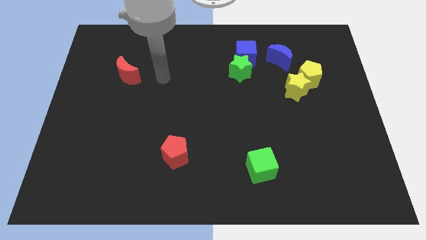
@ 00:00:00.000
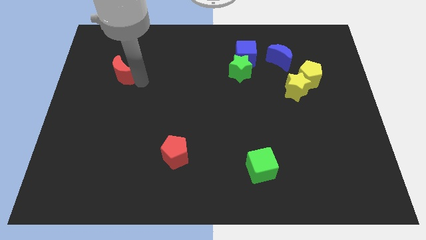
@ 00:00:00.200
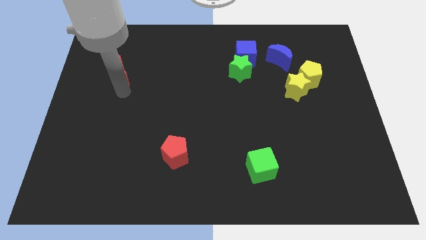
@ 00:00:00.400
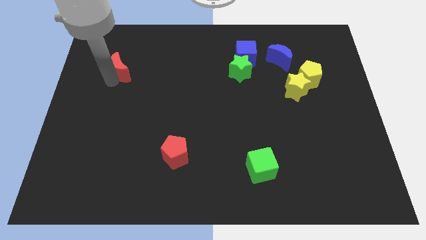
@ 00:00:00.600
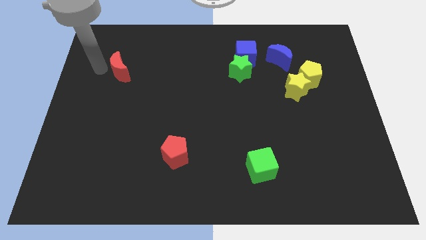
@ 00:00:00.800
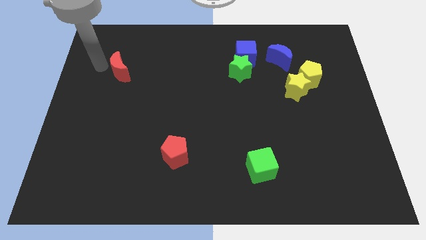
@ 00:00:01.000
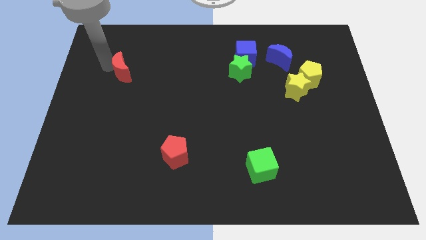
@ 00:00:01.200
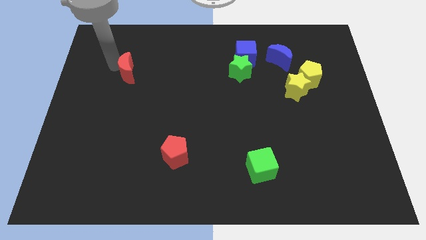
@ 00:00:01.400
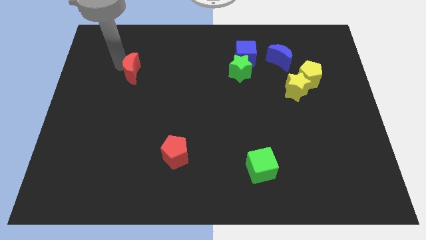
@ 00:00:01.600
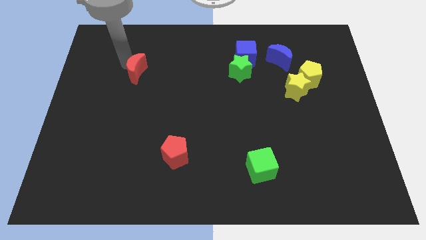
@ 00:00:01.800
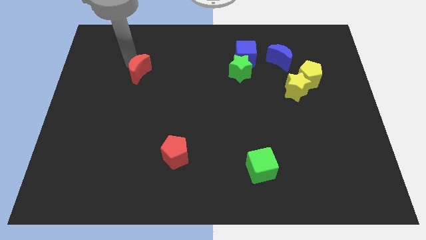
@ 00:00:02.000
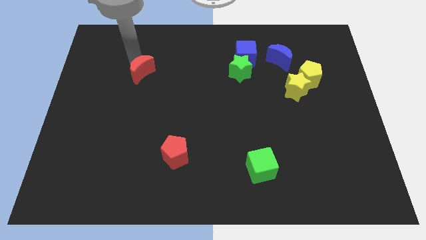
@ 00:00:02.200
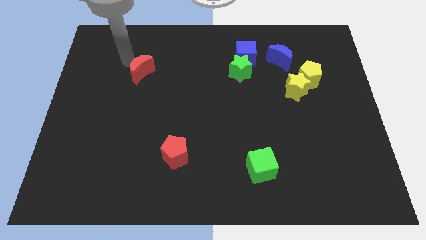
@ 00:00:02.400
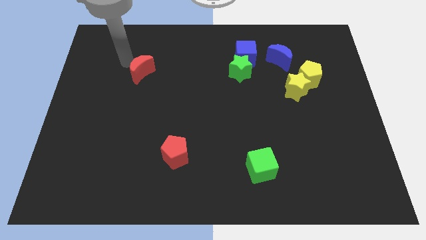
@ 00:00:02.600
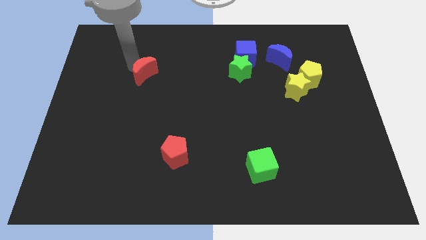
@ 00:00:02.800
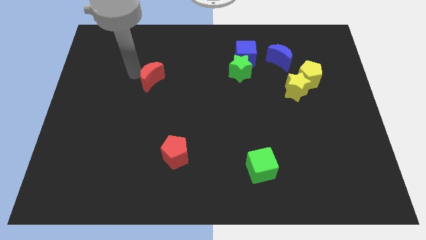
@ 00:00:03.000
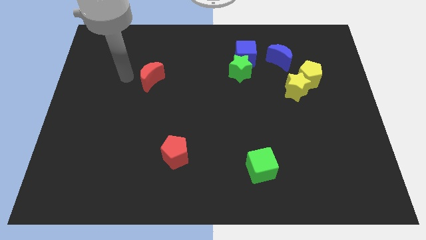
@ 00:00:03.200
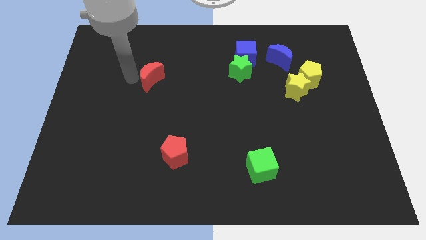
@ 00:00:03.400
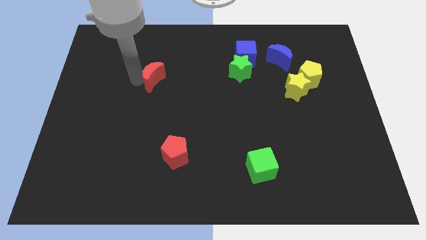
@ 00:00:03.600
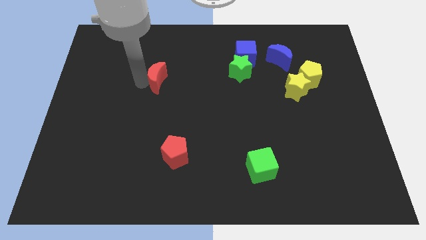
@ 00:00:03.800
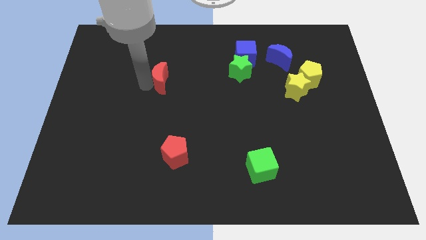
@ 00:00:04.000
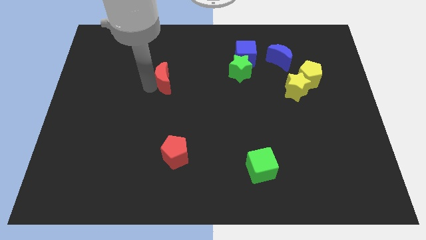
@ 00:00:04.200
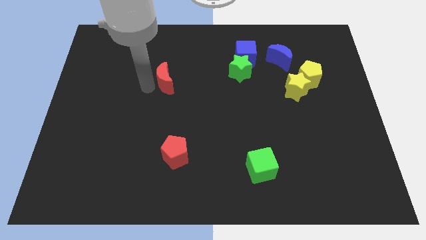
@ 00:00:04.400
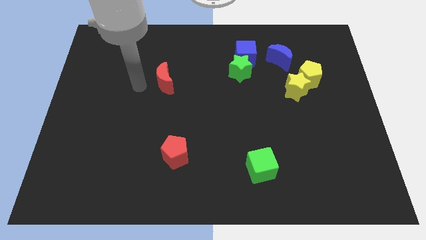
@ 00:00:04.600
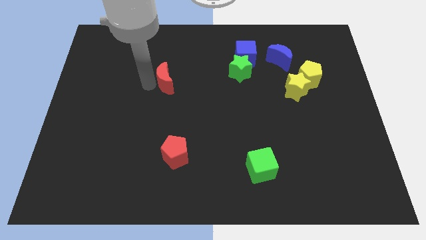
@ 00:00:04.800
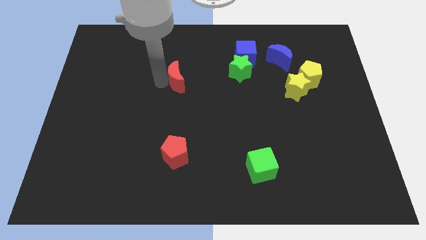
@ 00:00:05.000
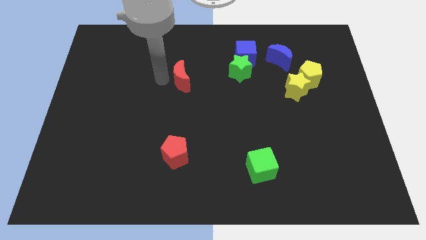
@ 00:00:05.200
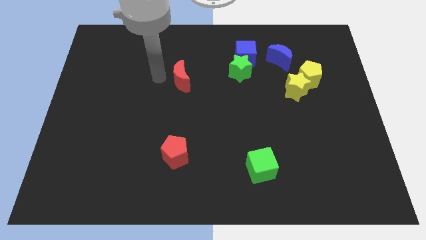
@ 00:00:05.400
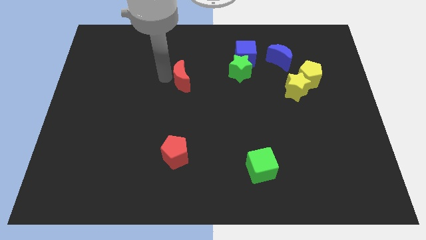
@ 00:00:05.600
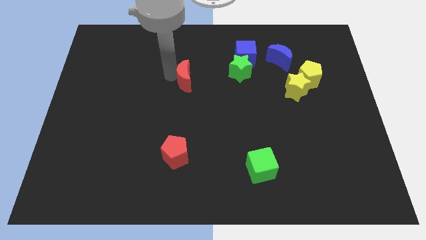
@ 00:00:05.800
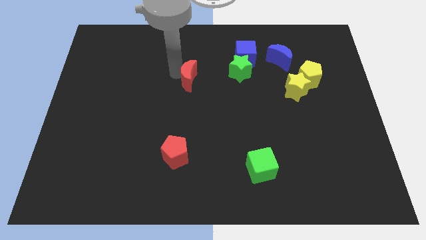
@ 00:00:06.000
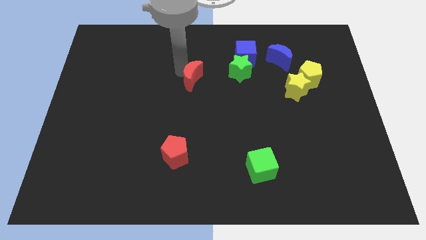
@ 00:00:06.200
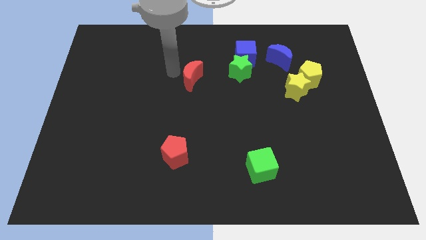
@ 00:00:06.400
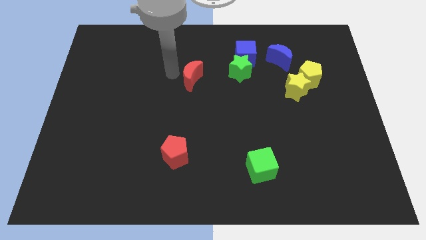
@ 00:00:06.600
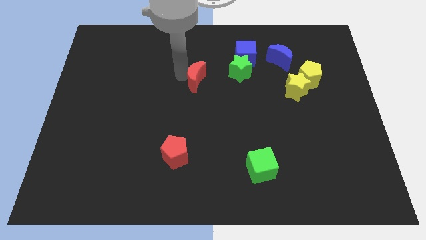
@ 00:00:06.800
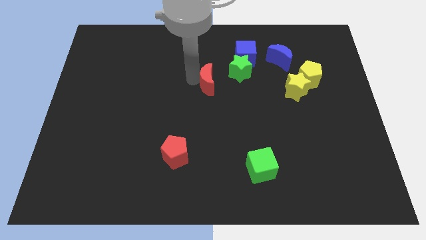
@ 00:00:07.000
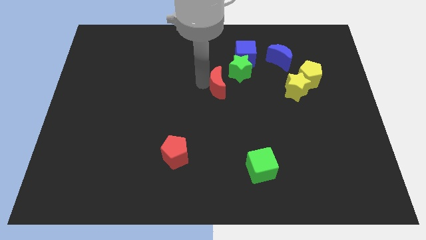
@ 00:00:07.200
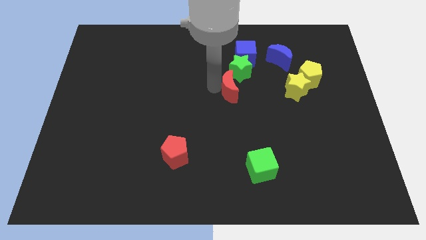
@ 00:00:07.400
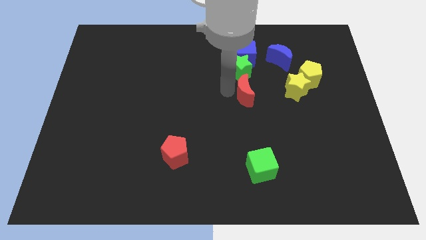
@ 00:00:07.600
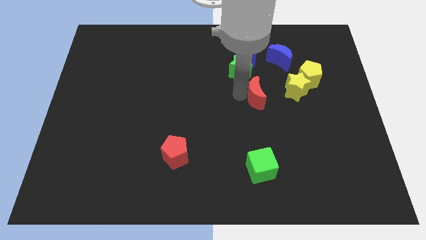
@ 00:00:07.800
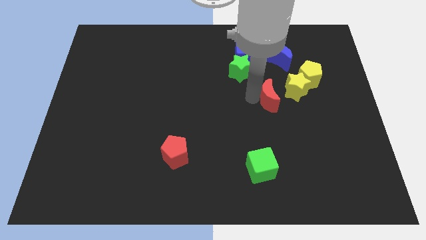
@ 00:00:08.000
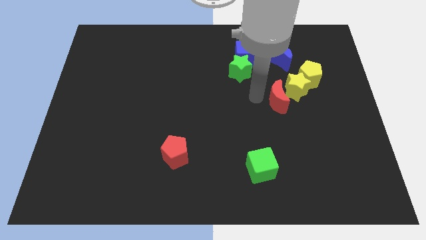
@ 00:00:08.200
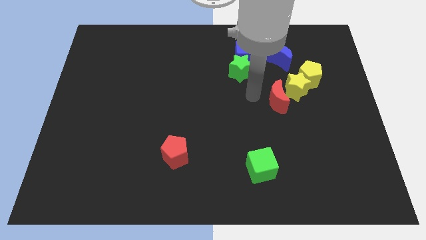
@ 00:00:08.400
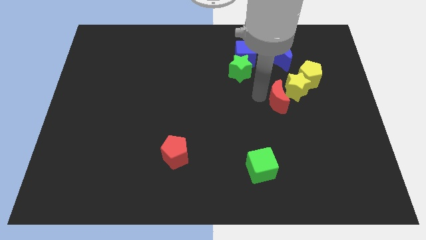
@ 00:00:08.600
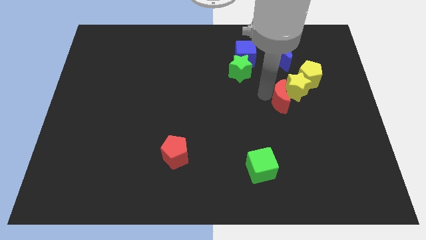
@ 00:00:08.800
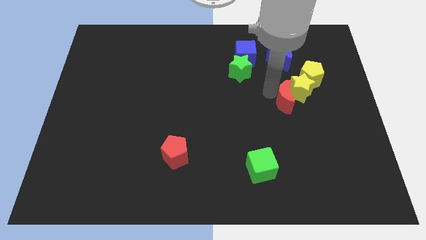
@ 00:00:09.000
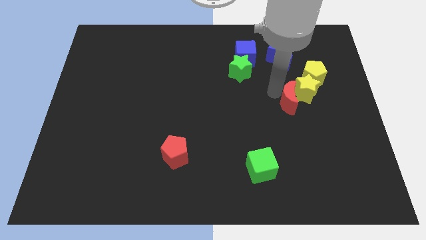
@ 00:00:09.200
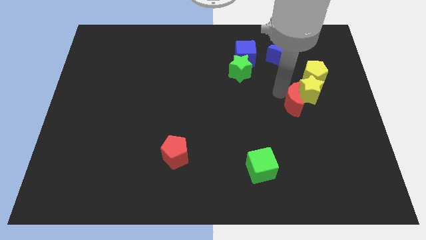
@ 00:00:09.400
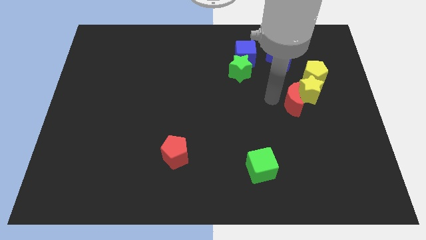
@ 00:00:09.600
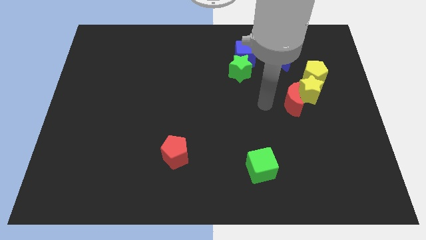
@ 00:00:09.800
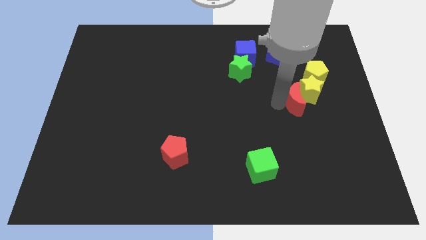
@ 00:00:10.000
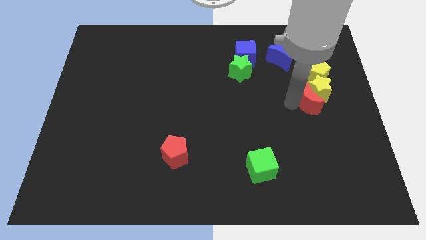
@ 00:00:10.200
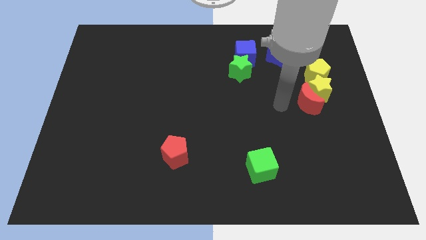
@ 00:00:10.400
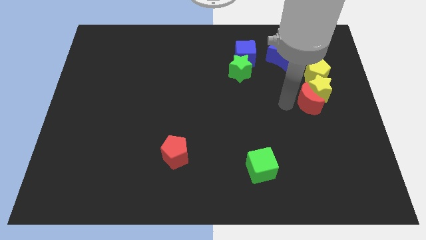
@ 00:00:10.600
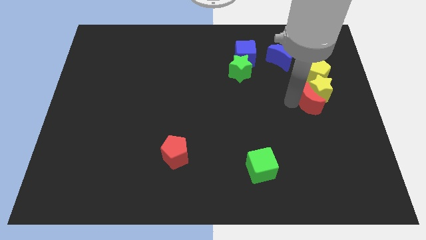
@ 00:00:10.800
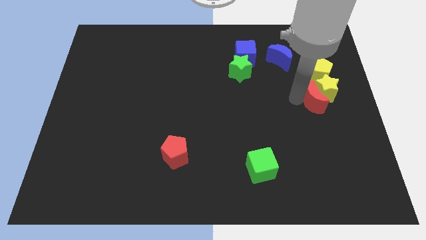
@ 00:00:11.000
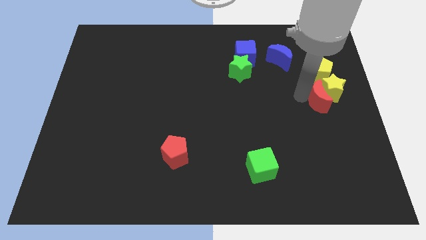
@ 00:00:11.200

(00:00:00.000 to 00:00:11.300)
move the red moon to the right side
